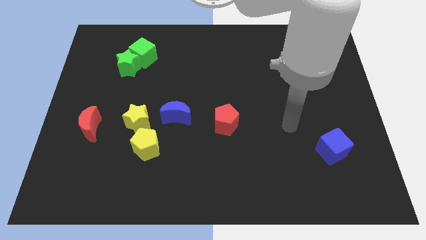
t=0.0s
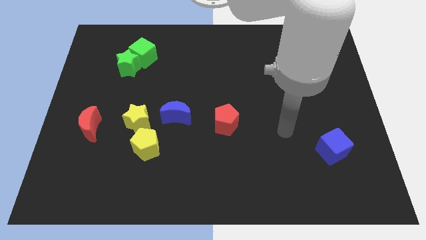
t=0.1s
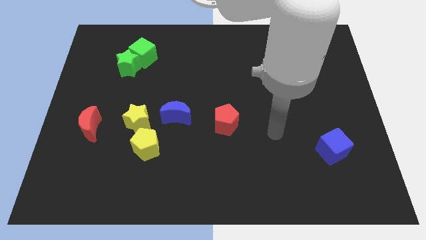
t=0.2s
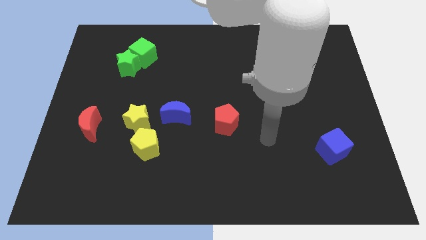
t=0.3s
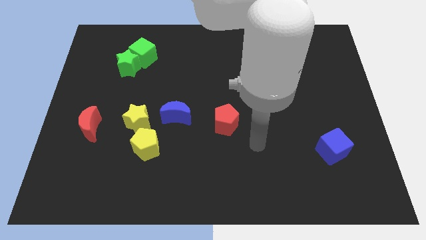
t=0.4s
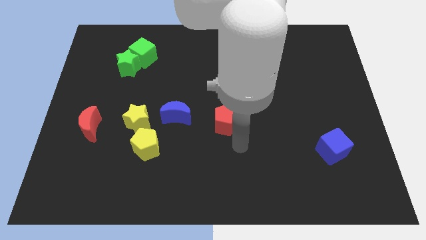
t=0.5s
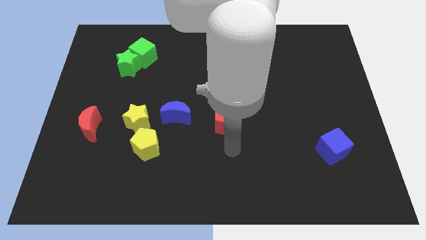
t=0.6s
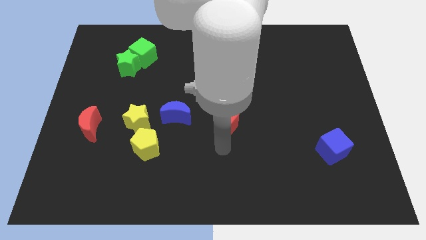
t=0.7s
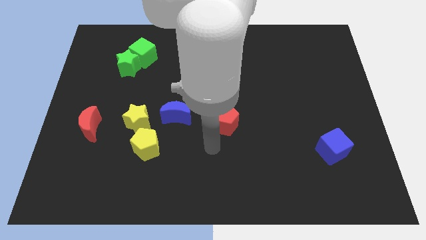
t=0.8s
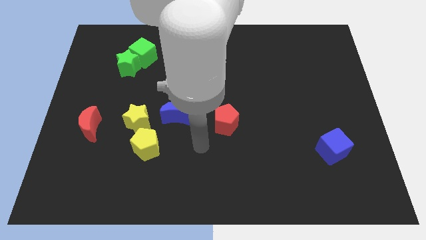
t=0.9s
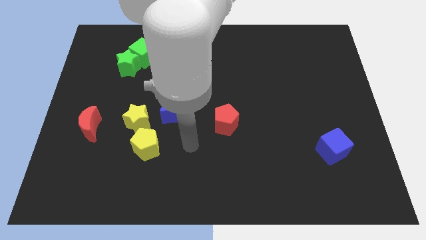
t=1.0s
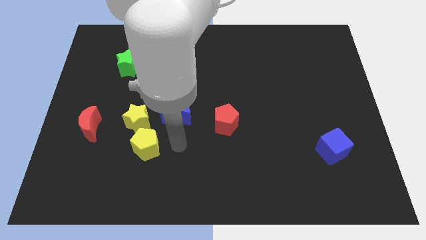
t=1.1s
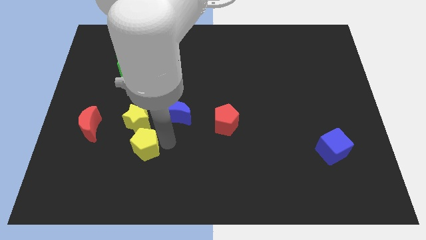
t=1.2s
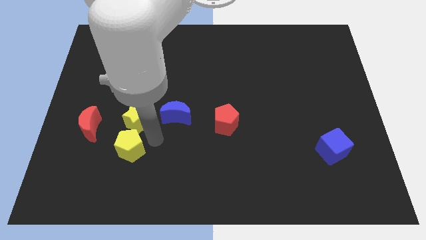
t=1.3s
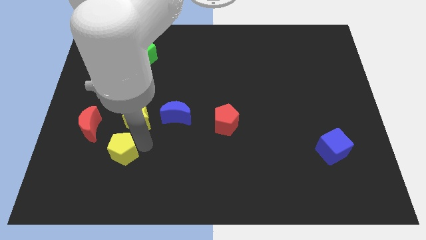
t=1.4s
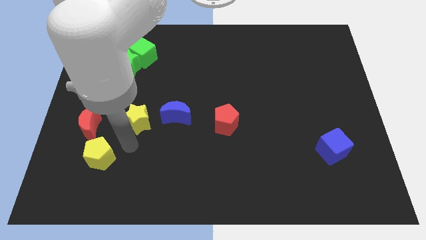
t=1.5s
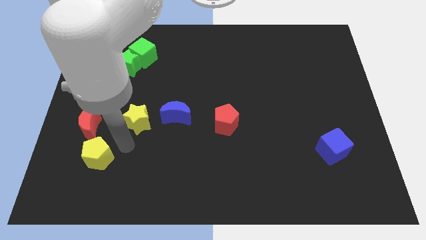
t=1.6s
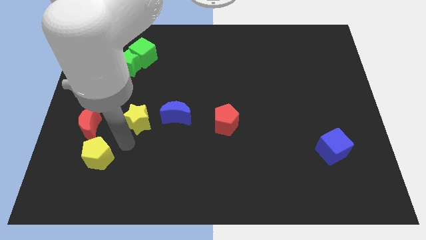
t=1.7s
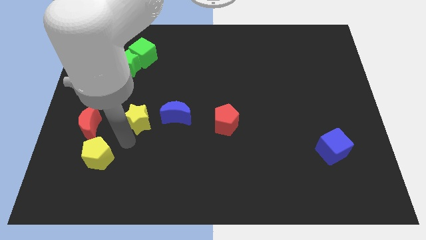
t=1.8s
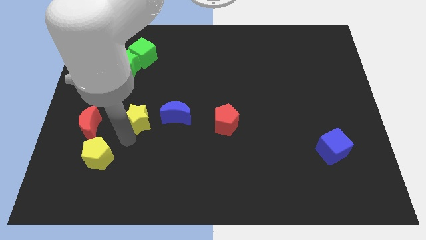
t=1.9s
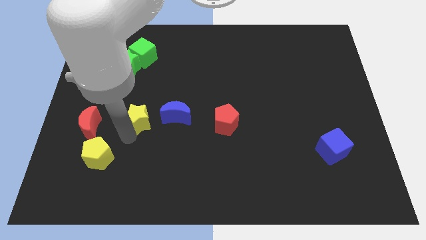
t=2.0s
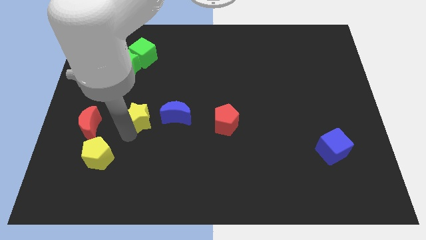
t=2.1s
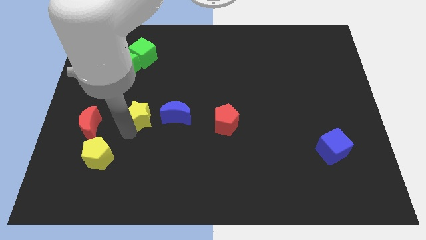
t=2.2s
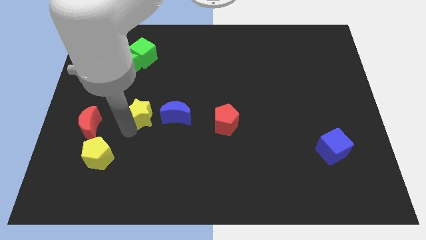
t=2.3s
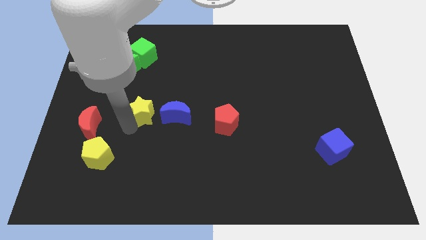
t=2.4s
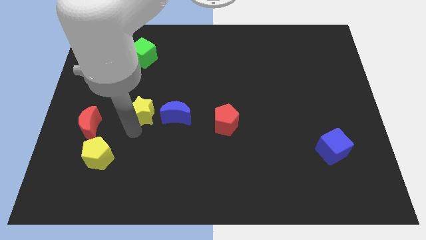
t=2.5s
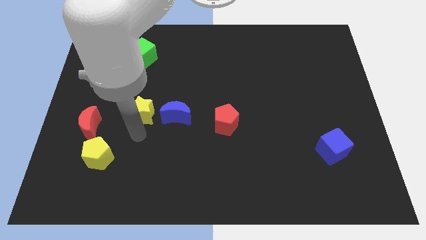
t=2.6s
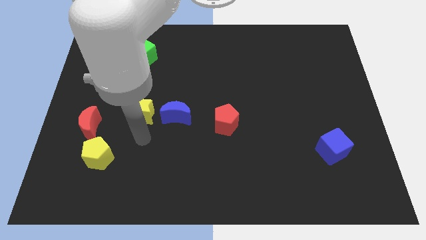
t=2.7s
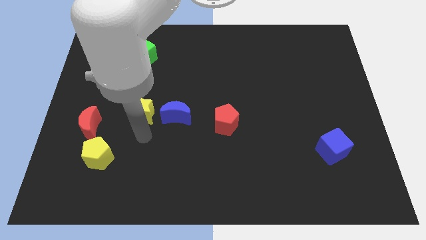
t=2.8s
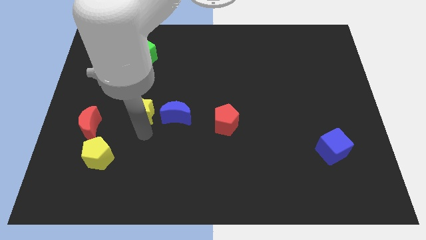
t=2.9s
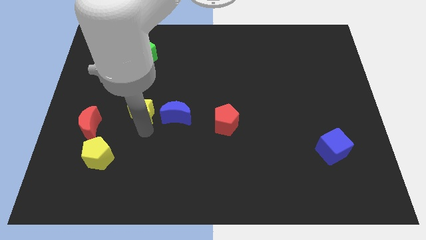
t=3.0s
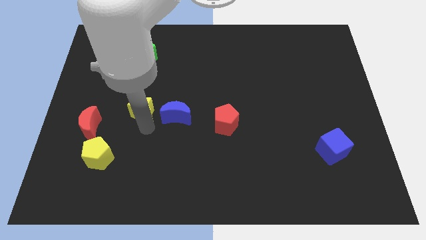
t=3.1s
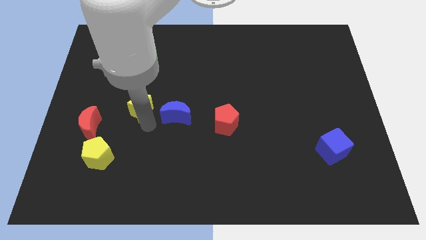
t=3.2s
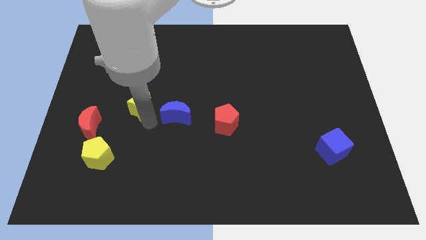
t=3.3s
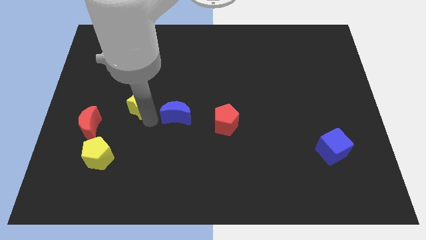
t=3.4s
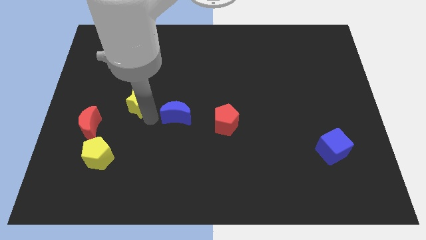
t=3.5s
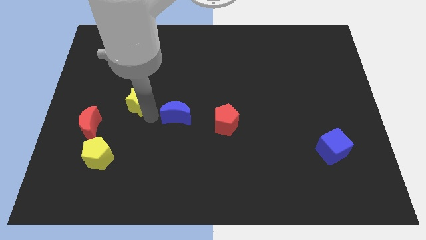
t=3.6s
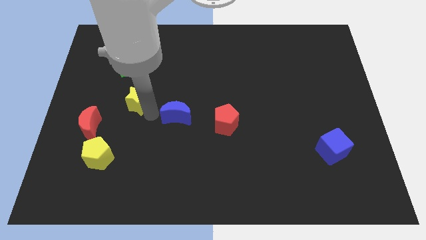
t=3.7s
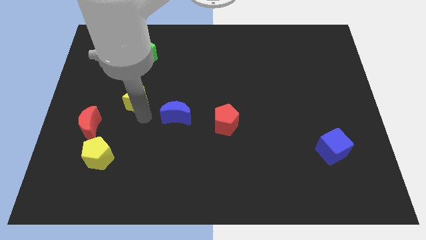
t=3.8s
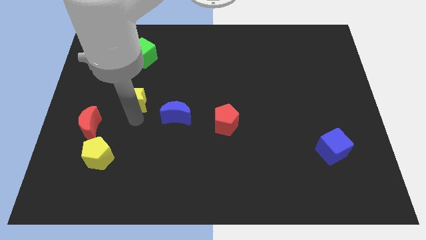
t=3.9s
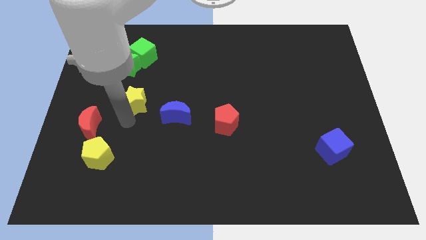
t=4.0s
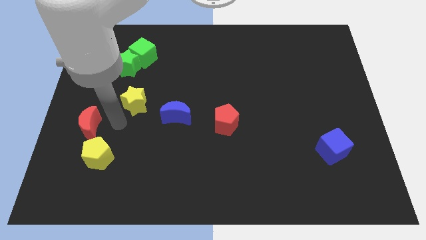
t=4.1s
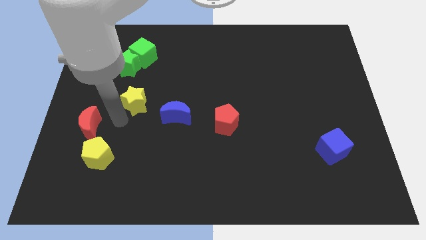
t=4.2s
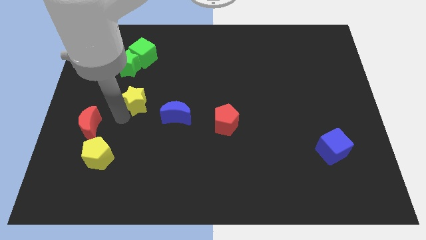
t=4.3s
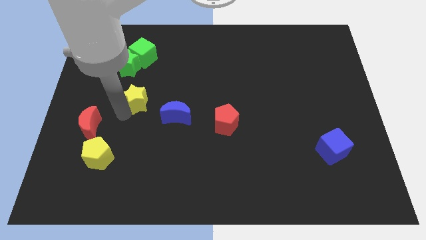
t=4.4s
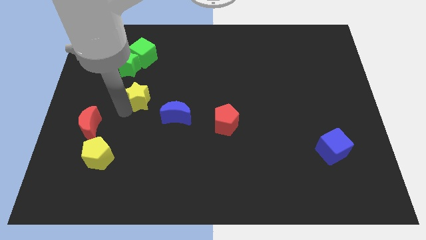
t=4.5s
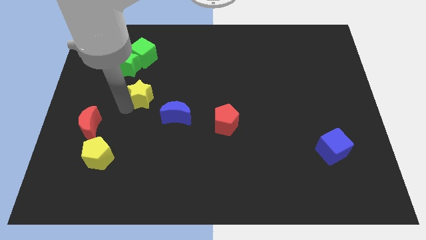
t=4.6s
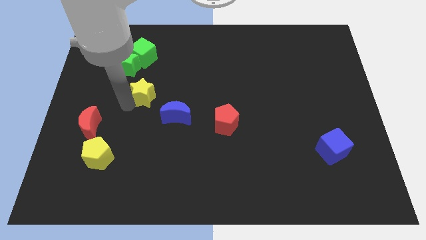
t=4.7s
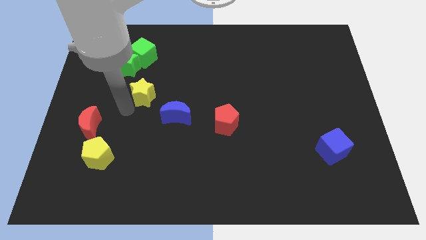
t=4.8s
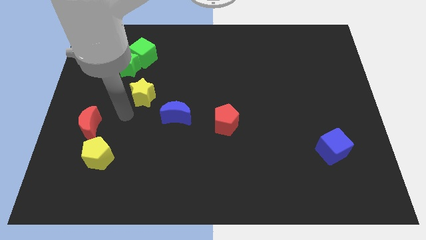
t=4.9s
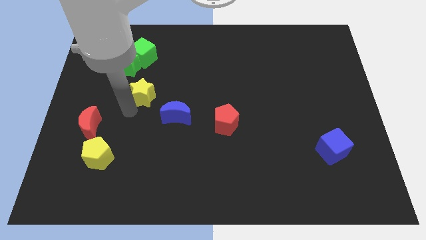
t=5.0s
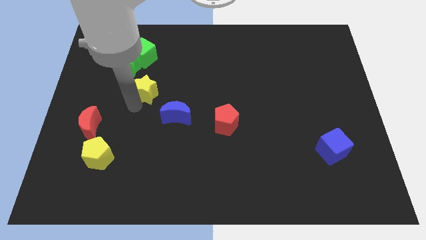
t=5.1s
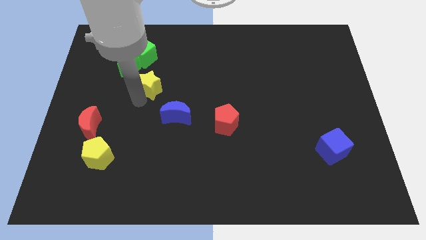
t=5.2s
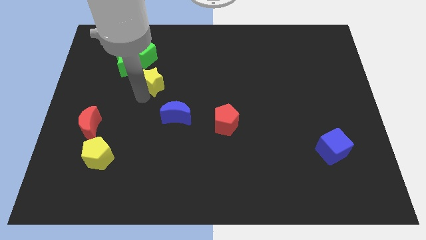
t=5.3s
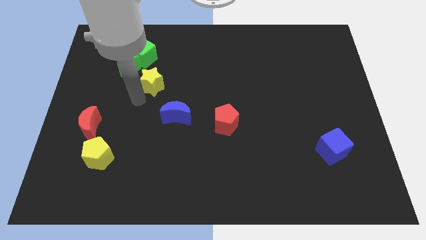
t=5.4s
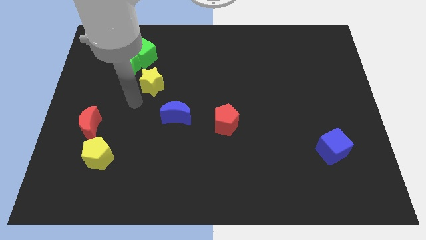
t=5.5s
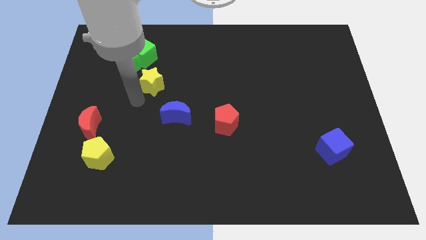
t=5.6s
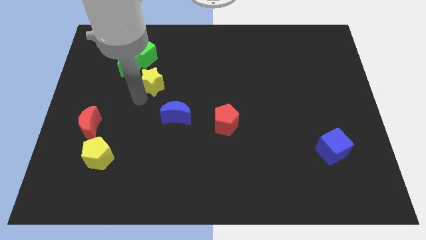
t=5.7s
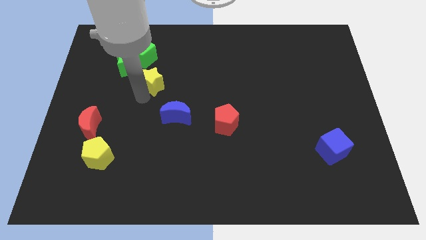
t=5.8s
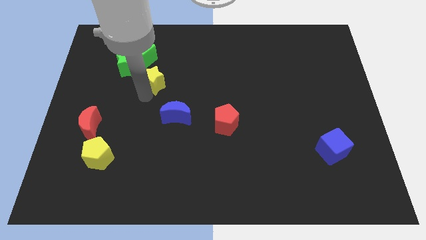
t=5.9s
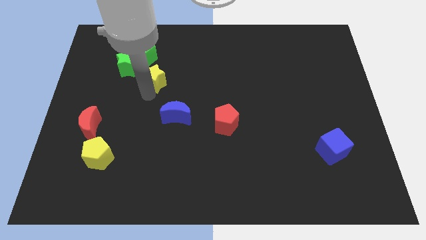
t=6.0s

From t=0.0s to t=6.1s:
push the yellow star right of the green star

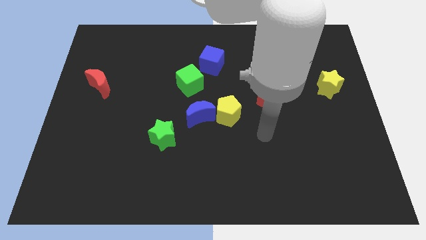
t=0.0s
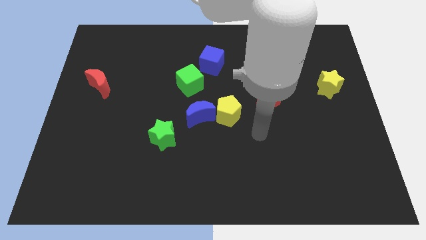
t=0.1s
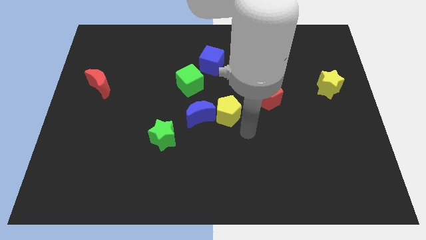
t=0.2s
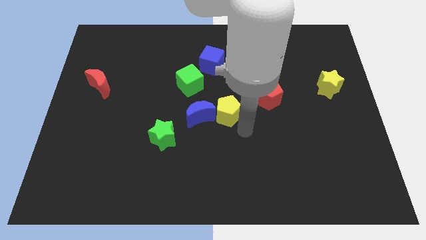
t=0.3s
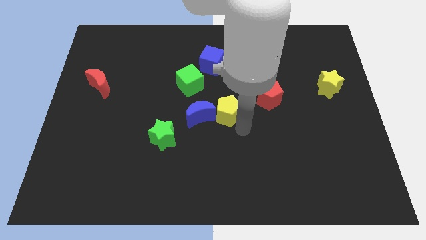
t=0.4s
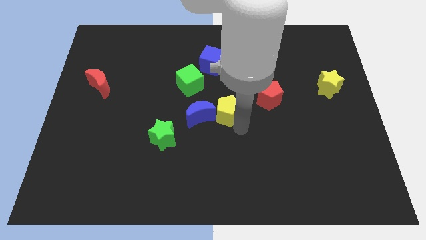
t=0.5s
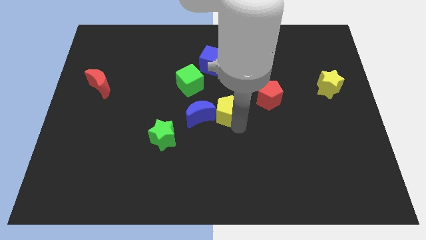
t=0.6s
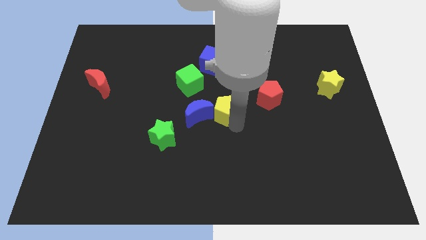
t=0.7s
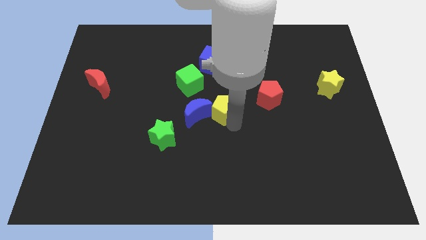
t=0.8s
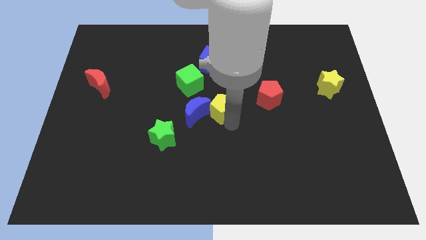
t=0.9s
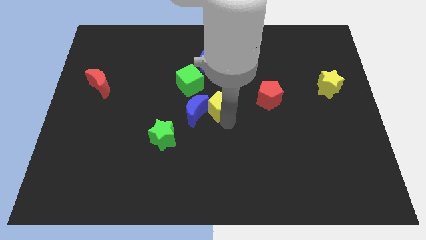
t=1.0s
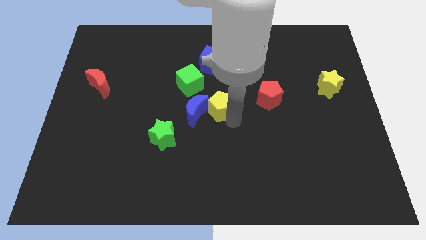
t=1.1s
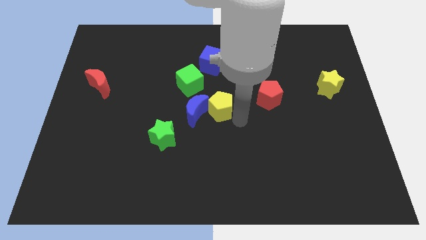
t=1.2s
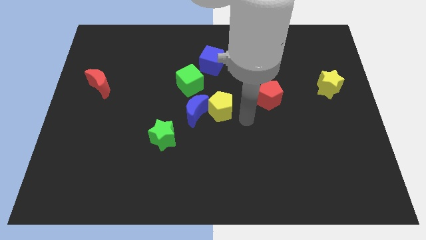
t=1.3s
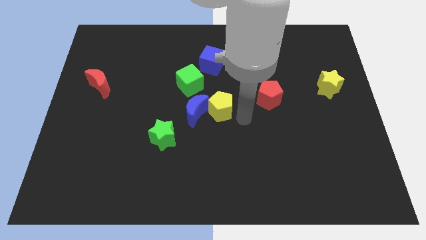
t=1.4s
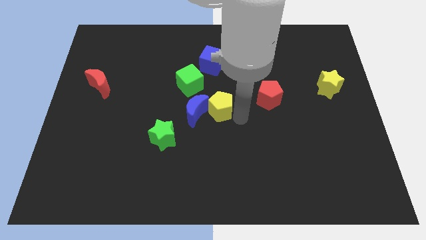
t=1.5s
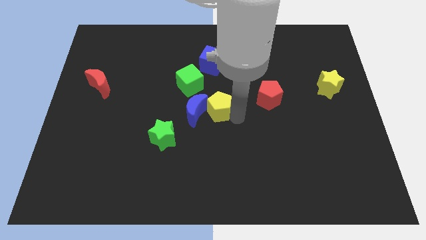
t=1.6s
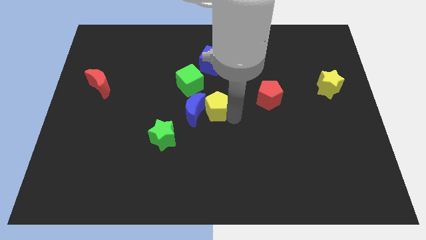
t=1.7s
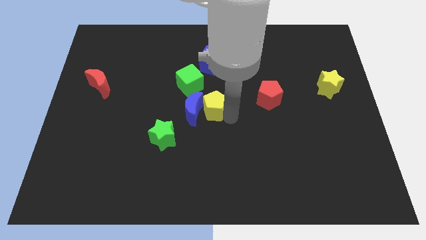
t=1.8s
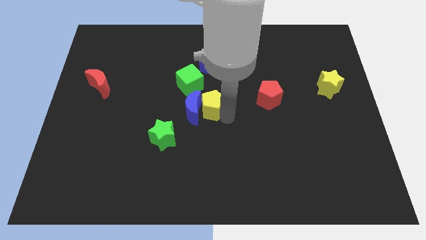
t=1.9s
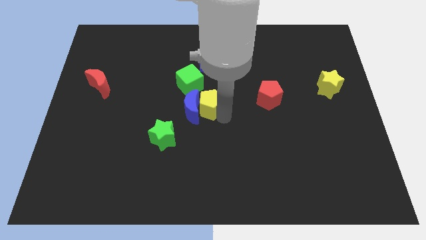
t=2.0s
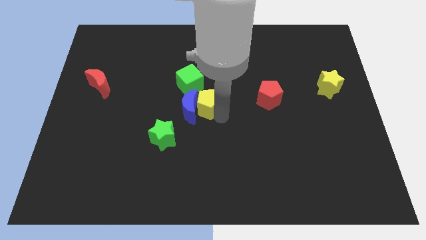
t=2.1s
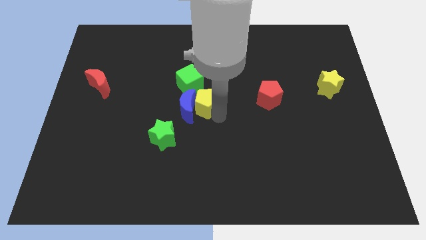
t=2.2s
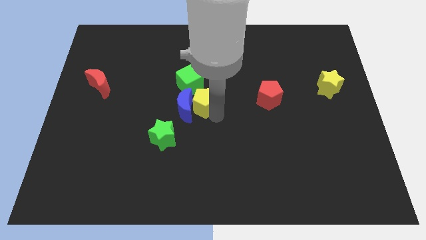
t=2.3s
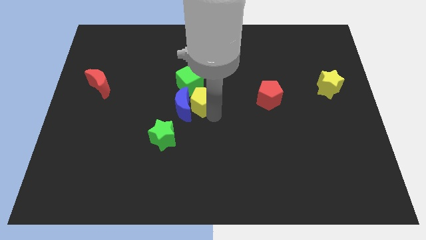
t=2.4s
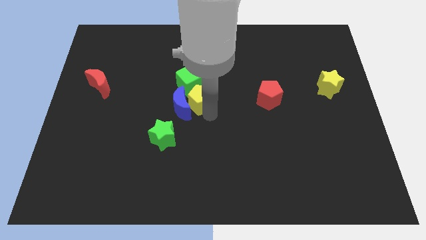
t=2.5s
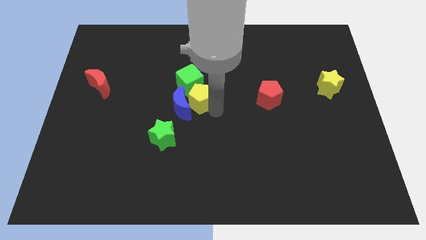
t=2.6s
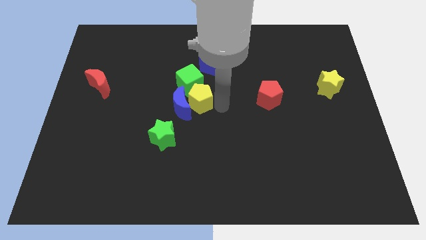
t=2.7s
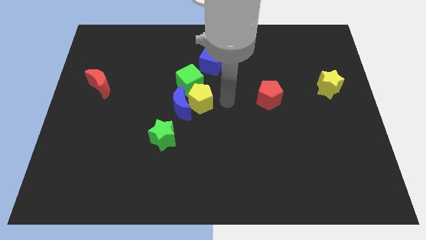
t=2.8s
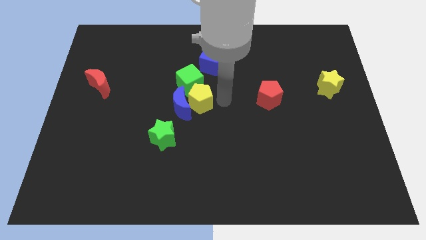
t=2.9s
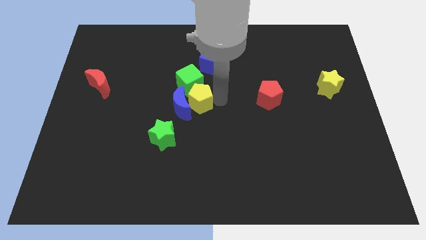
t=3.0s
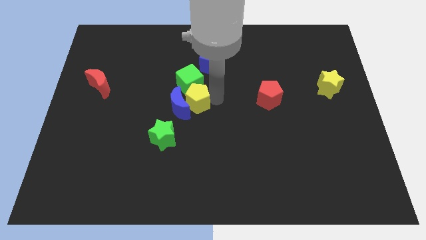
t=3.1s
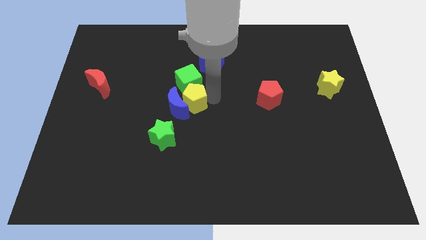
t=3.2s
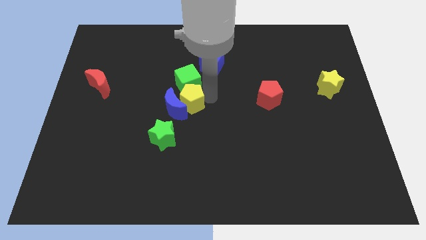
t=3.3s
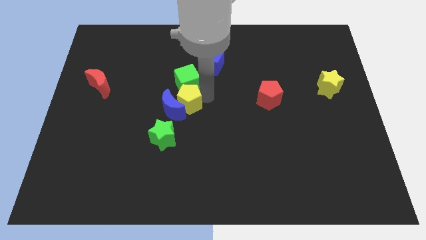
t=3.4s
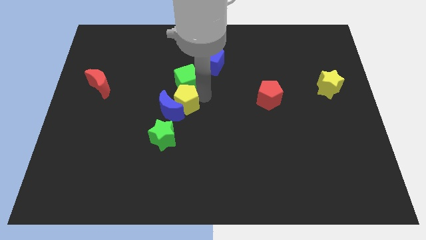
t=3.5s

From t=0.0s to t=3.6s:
slide the yellow pentagon above the green star
